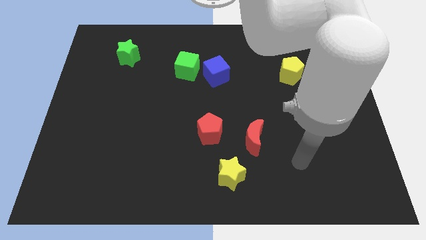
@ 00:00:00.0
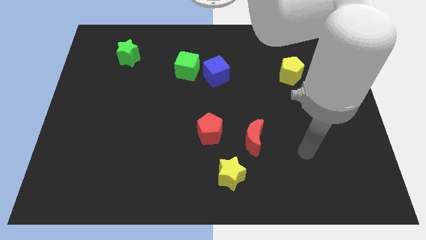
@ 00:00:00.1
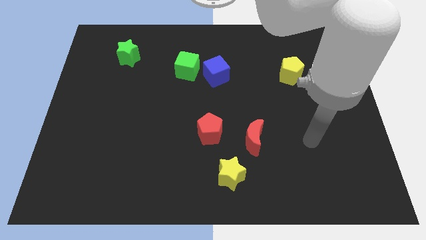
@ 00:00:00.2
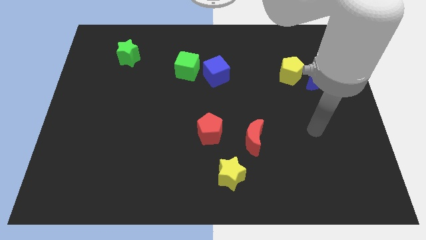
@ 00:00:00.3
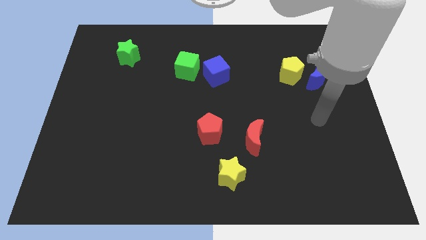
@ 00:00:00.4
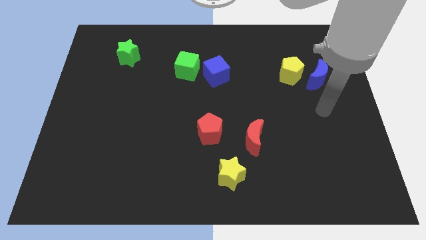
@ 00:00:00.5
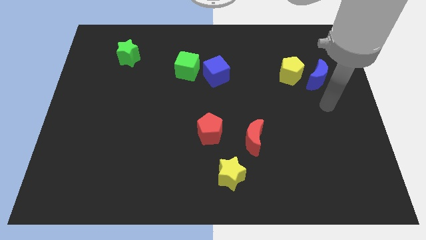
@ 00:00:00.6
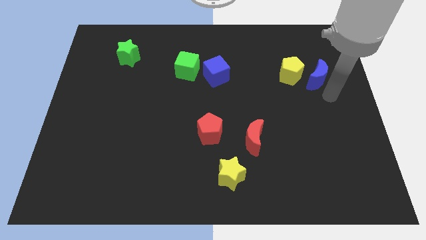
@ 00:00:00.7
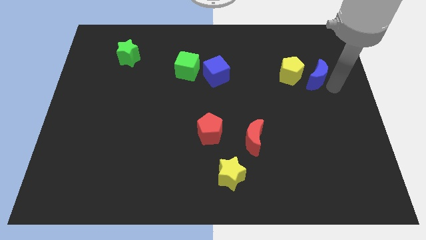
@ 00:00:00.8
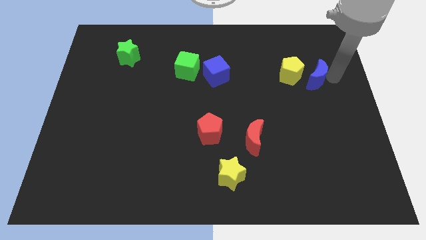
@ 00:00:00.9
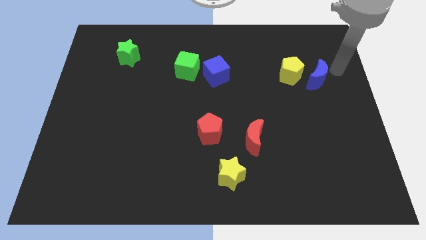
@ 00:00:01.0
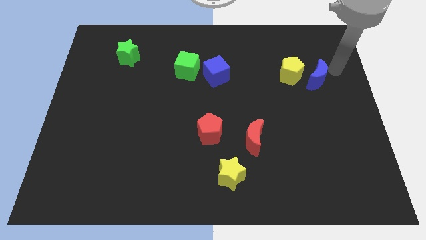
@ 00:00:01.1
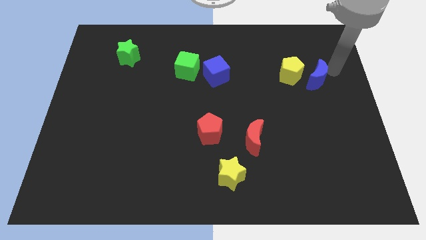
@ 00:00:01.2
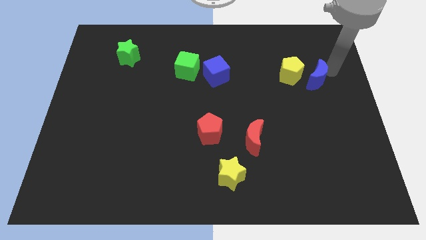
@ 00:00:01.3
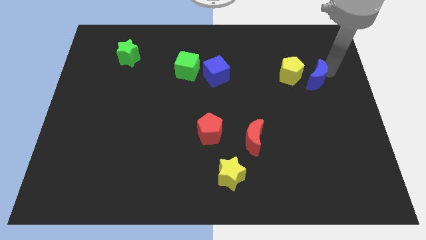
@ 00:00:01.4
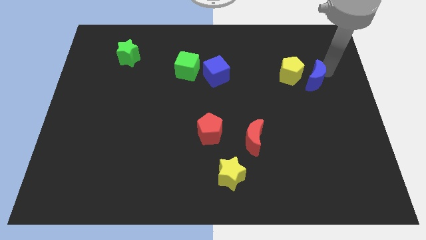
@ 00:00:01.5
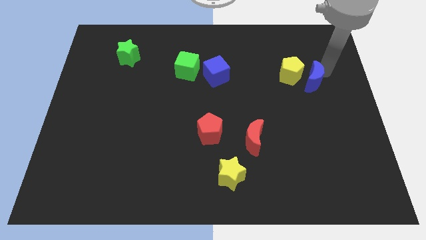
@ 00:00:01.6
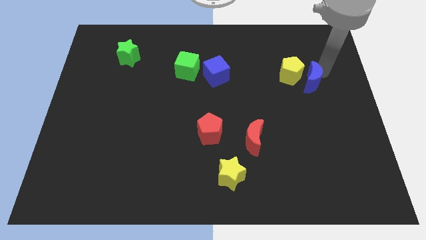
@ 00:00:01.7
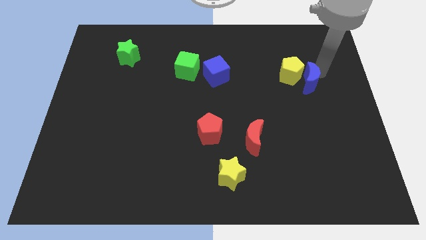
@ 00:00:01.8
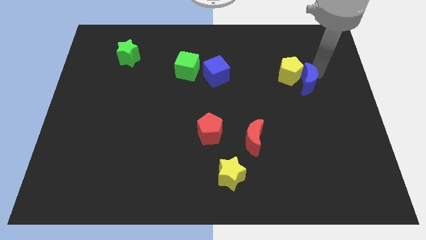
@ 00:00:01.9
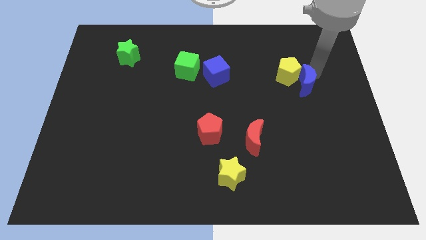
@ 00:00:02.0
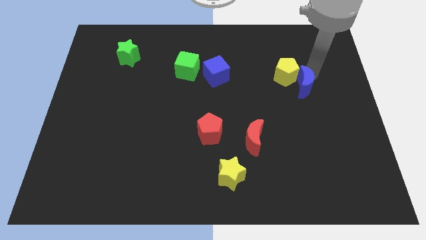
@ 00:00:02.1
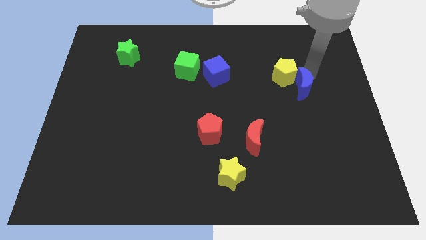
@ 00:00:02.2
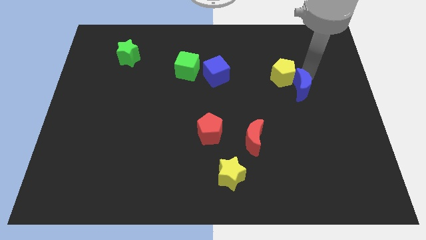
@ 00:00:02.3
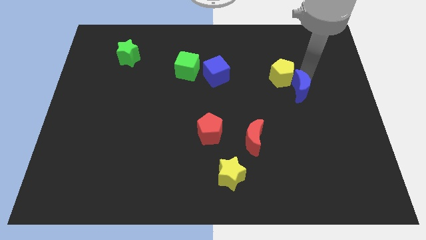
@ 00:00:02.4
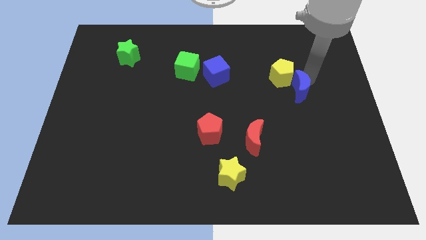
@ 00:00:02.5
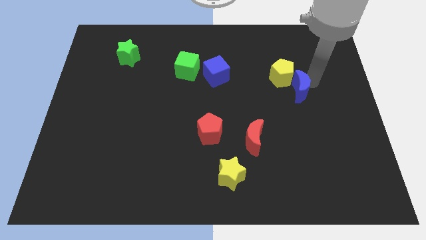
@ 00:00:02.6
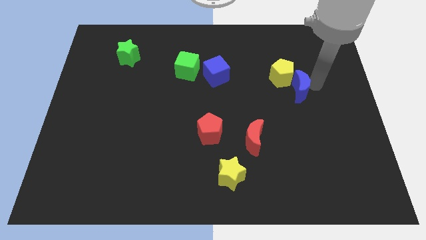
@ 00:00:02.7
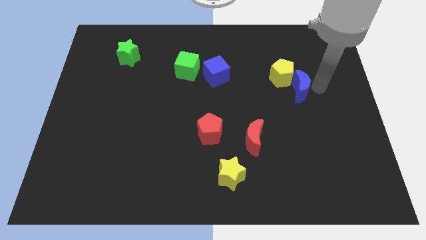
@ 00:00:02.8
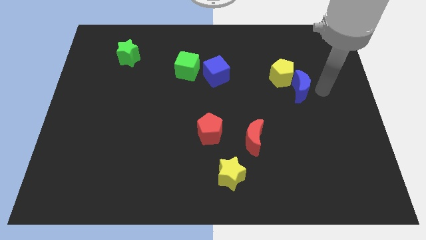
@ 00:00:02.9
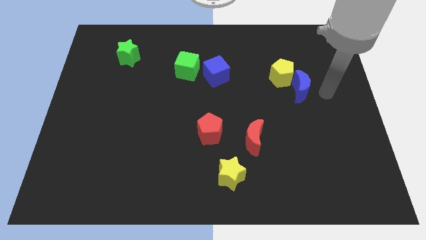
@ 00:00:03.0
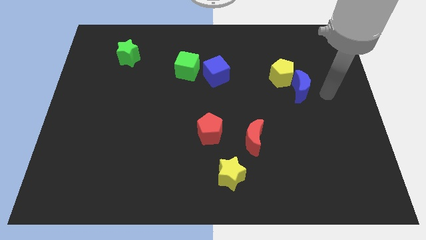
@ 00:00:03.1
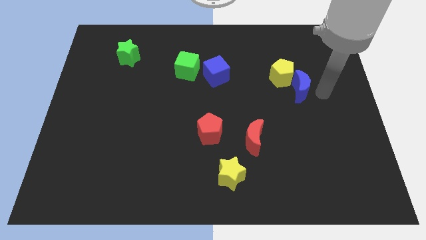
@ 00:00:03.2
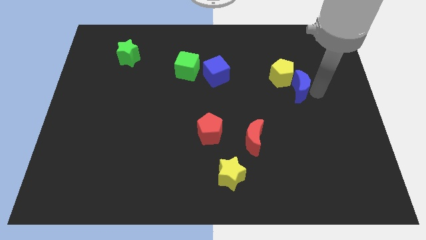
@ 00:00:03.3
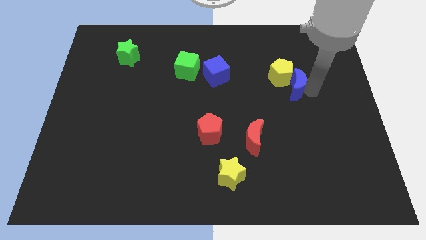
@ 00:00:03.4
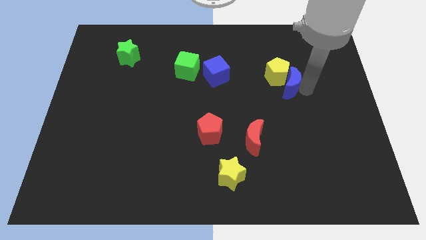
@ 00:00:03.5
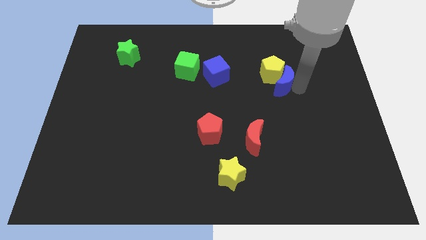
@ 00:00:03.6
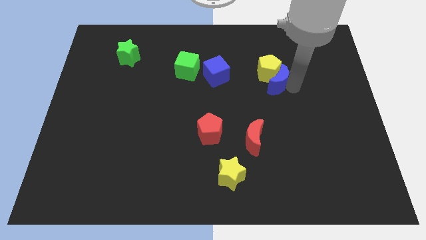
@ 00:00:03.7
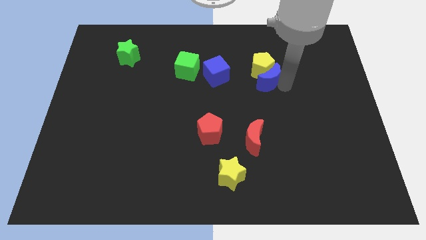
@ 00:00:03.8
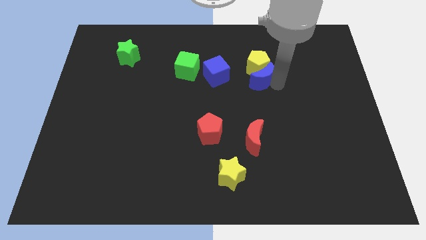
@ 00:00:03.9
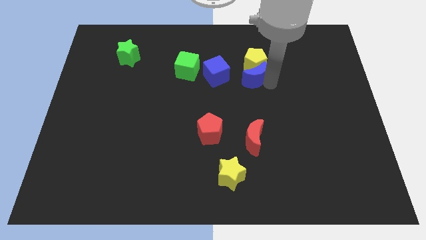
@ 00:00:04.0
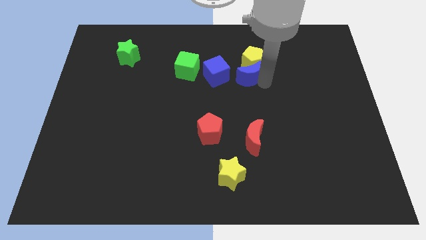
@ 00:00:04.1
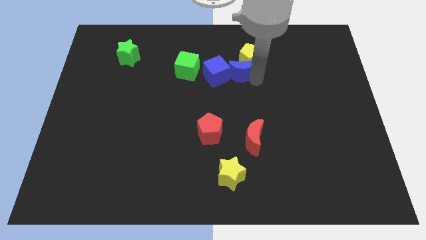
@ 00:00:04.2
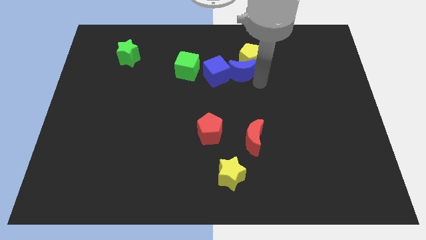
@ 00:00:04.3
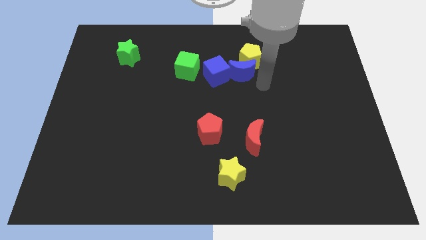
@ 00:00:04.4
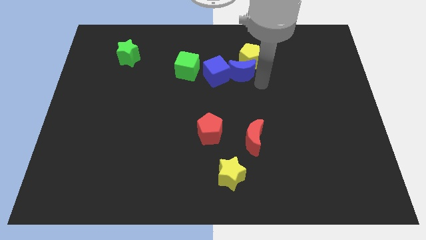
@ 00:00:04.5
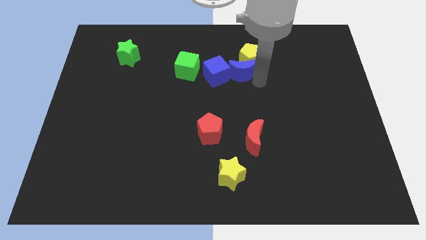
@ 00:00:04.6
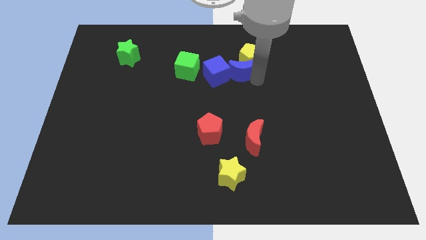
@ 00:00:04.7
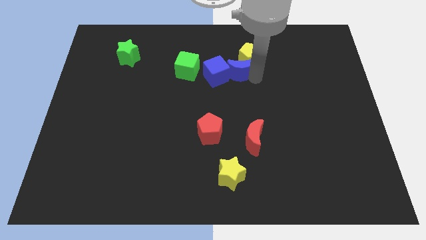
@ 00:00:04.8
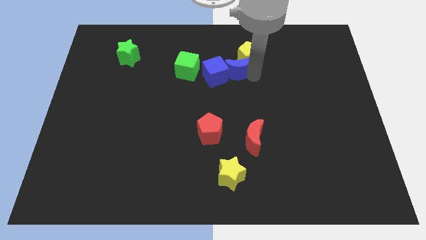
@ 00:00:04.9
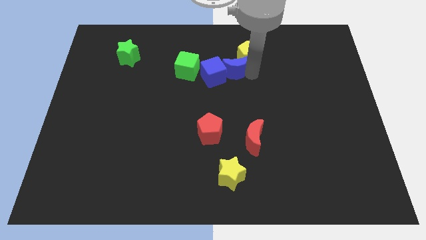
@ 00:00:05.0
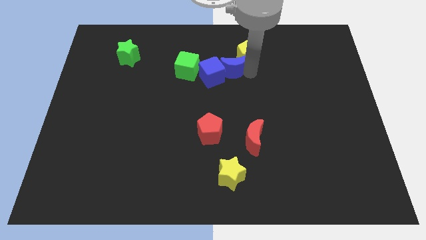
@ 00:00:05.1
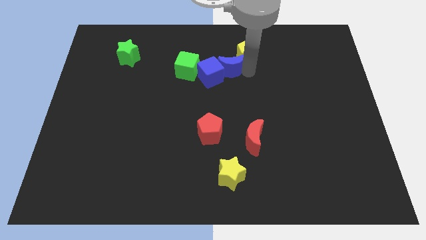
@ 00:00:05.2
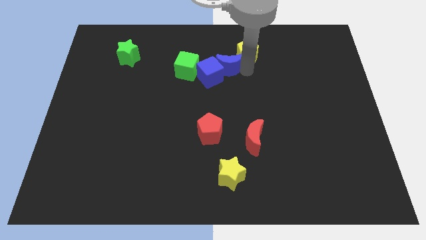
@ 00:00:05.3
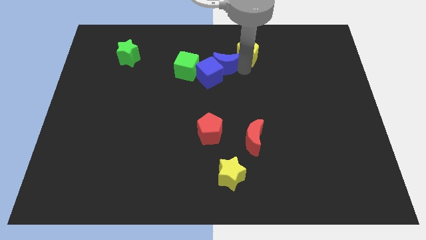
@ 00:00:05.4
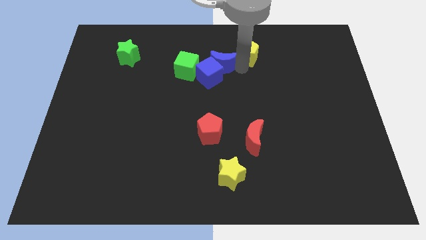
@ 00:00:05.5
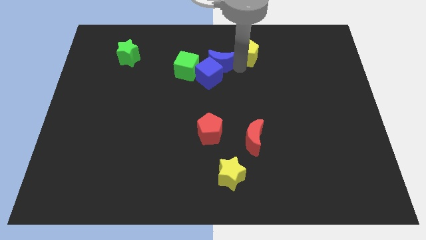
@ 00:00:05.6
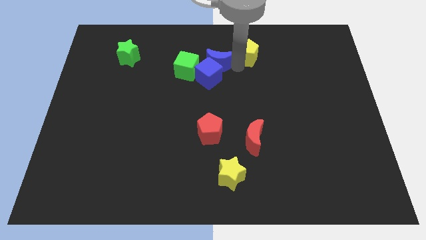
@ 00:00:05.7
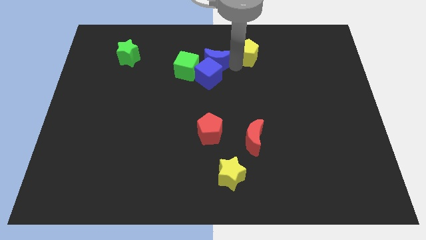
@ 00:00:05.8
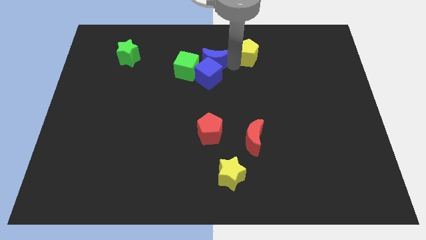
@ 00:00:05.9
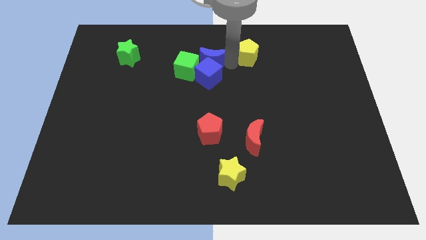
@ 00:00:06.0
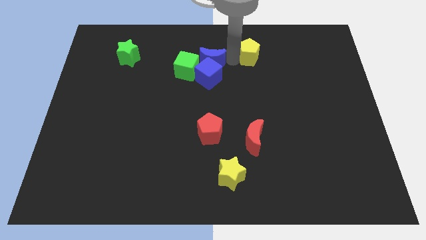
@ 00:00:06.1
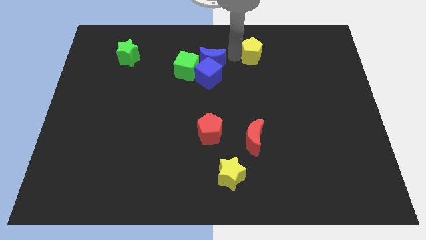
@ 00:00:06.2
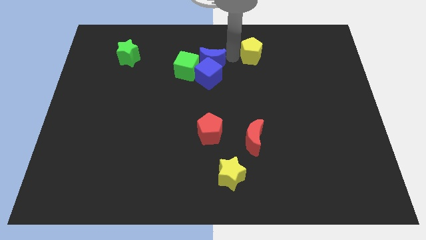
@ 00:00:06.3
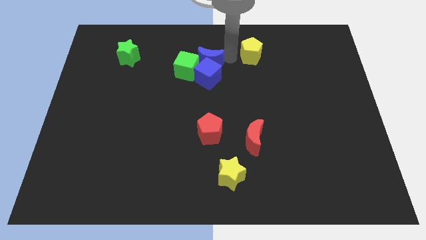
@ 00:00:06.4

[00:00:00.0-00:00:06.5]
put the blue moon to the green cube
